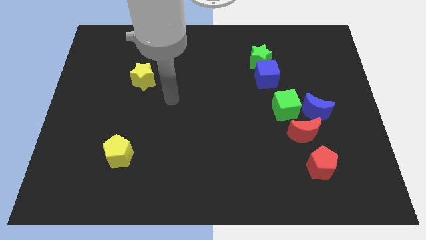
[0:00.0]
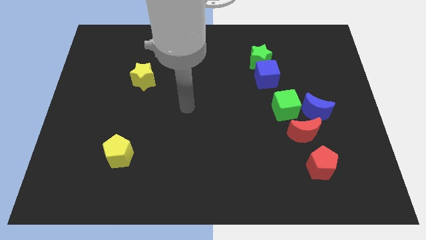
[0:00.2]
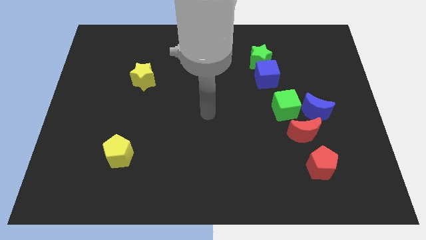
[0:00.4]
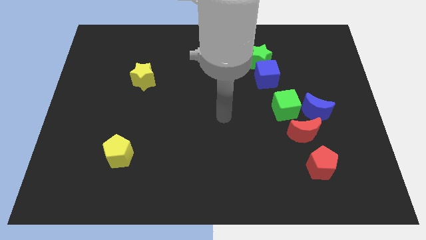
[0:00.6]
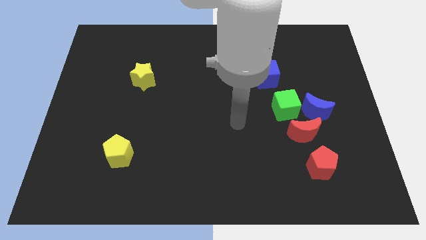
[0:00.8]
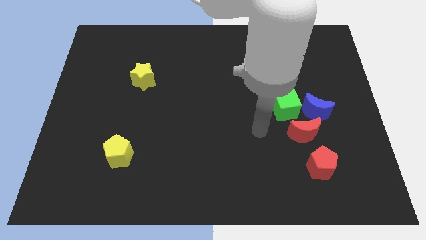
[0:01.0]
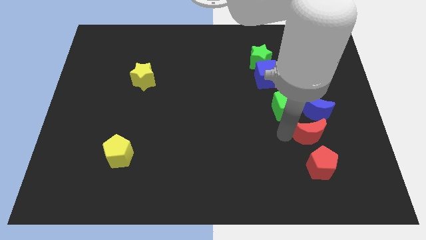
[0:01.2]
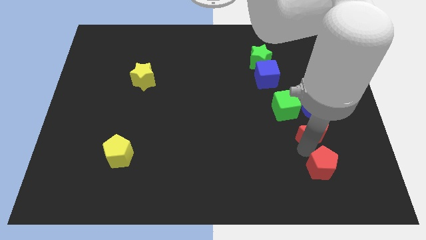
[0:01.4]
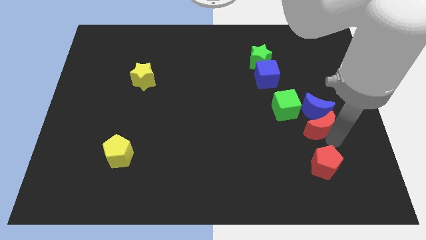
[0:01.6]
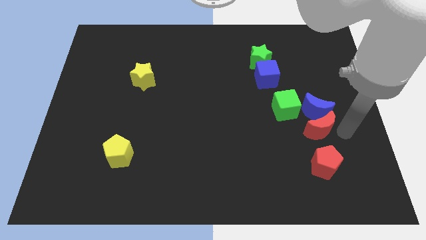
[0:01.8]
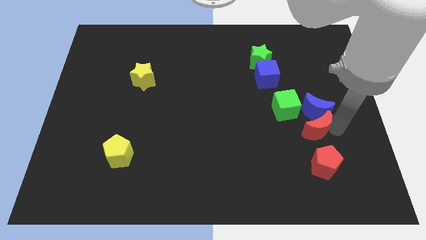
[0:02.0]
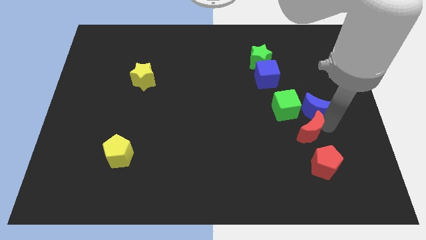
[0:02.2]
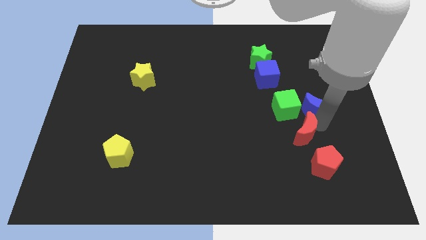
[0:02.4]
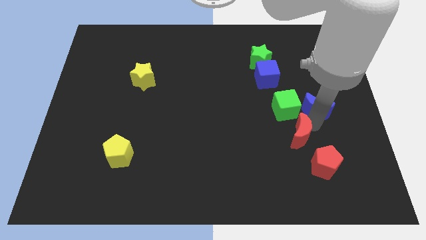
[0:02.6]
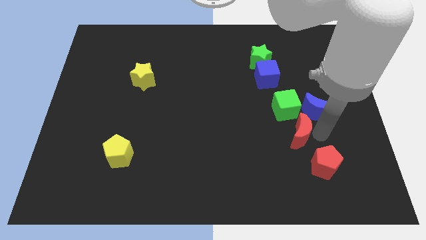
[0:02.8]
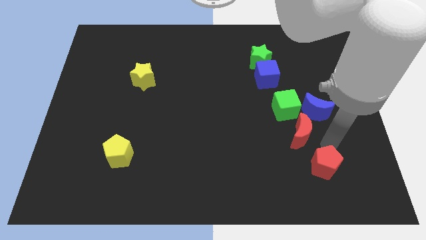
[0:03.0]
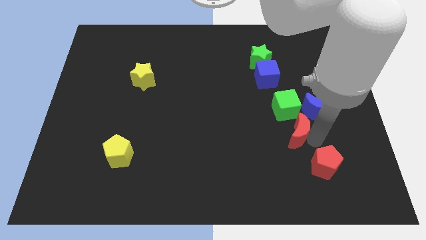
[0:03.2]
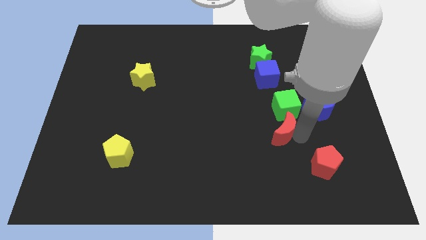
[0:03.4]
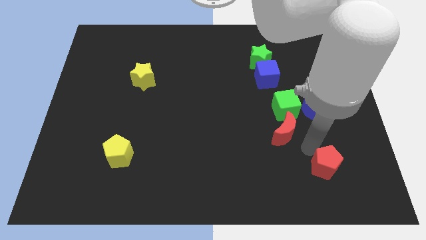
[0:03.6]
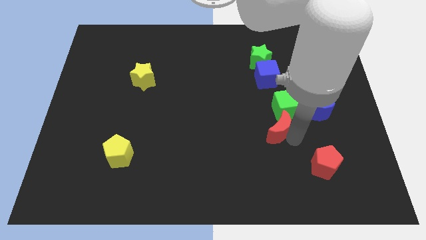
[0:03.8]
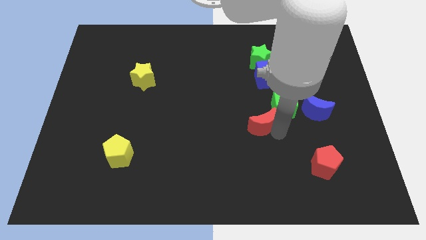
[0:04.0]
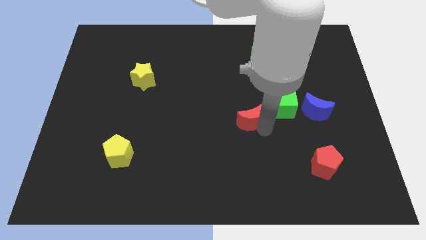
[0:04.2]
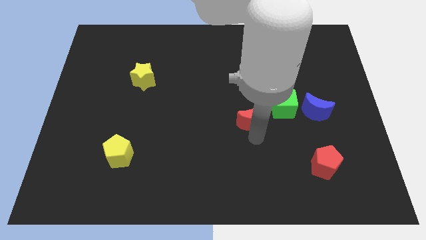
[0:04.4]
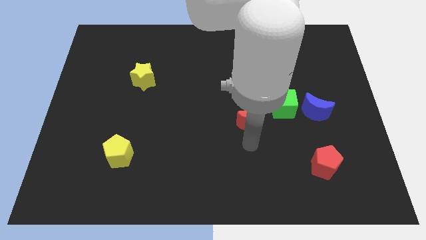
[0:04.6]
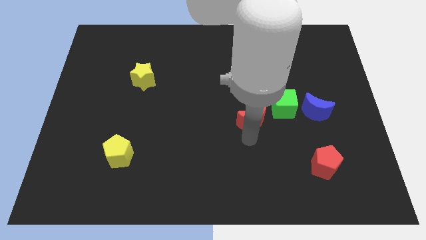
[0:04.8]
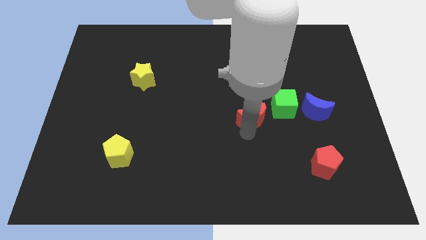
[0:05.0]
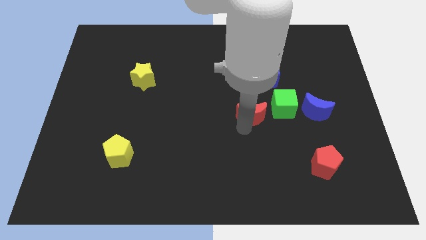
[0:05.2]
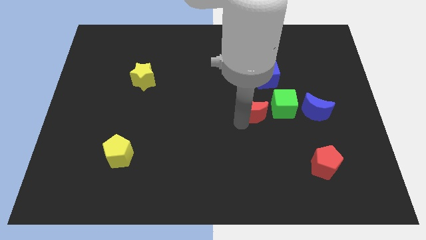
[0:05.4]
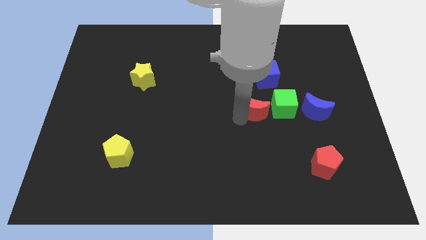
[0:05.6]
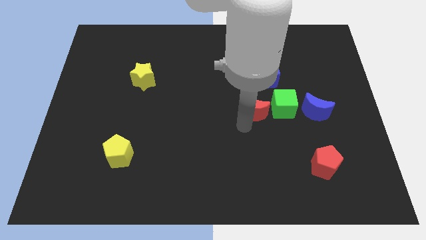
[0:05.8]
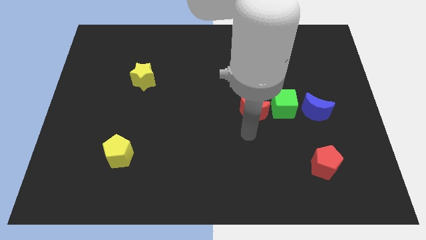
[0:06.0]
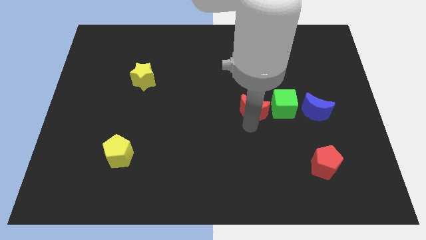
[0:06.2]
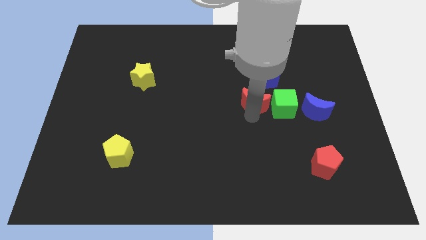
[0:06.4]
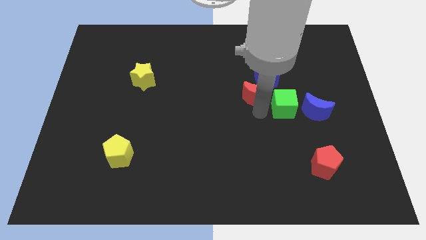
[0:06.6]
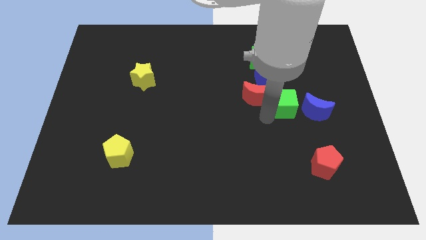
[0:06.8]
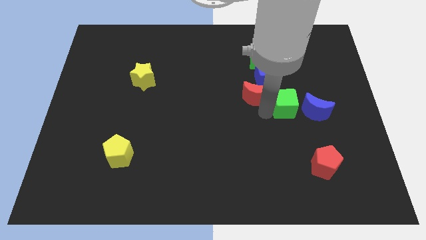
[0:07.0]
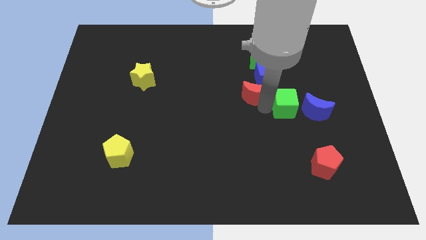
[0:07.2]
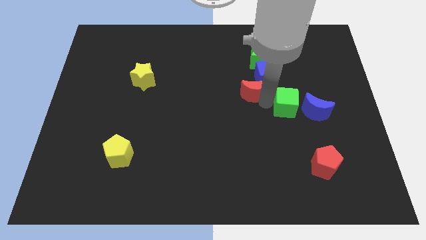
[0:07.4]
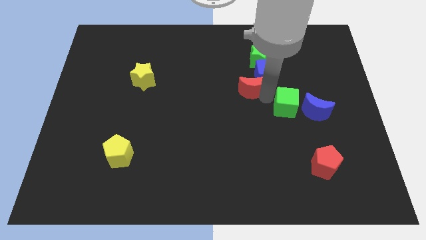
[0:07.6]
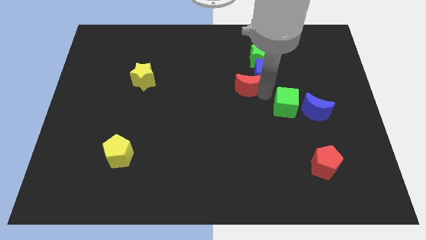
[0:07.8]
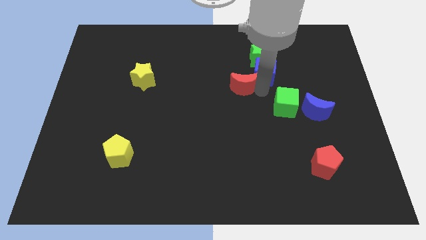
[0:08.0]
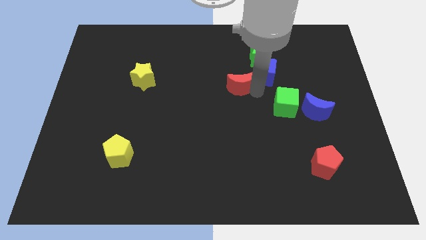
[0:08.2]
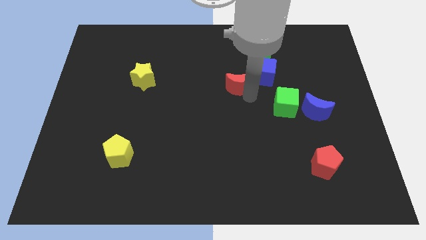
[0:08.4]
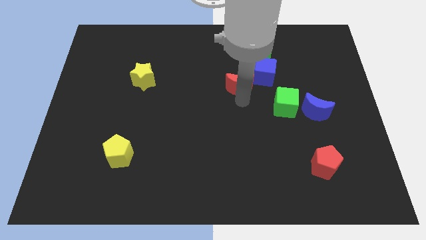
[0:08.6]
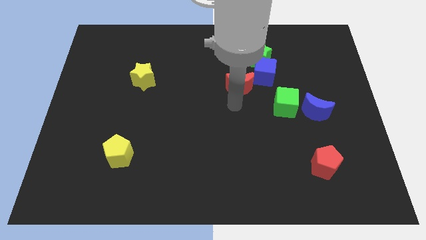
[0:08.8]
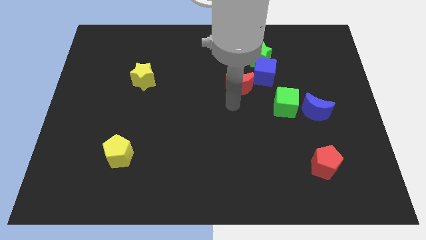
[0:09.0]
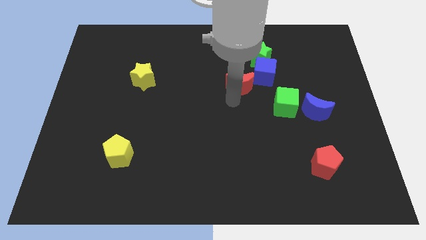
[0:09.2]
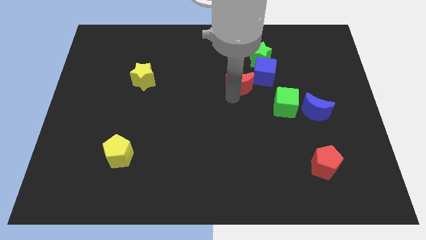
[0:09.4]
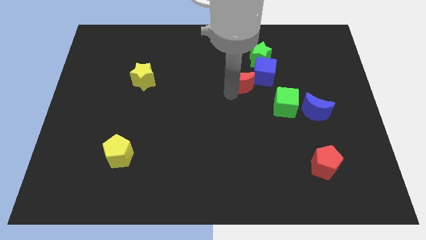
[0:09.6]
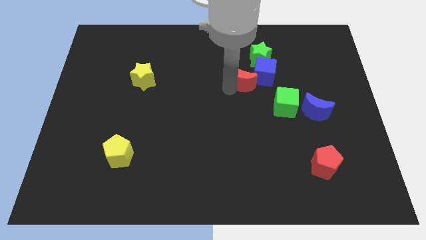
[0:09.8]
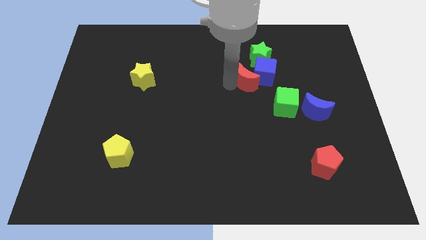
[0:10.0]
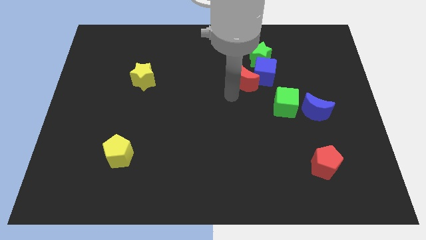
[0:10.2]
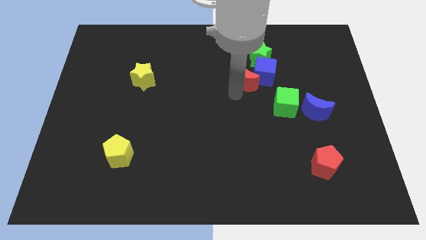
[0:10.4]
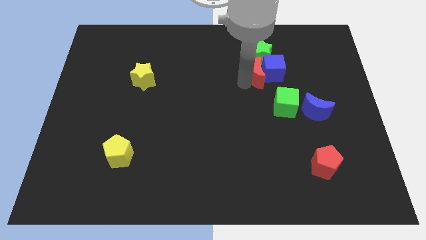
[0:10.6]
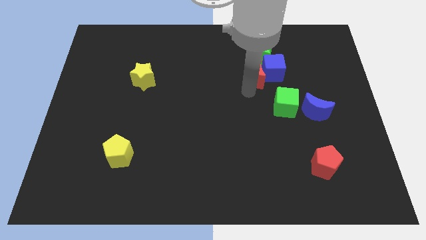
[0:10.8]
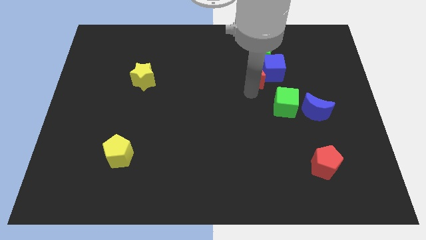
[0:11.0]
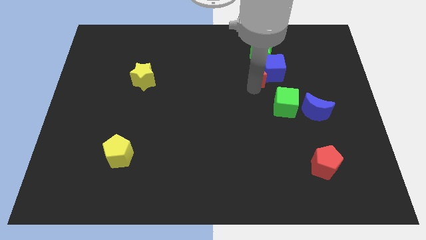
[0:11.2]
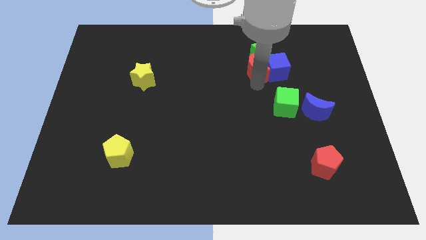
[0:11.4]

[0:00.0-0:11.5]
slide the red moon to the green star
